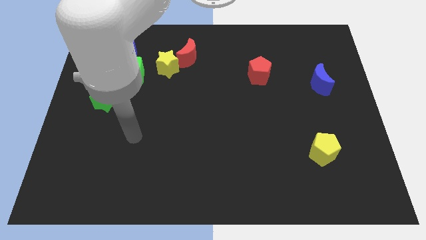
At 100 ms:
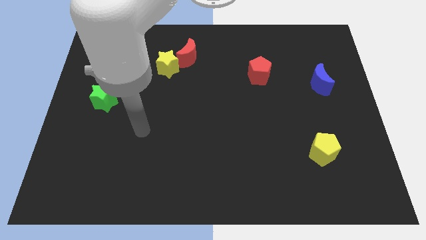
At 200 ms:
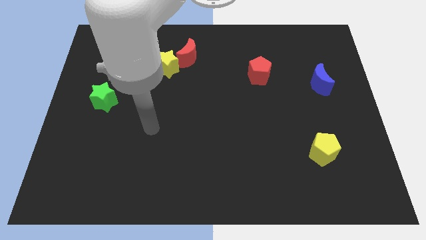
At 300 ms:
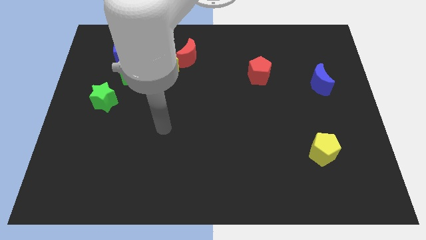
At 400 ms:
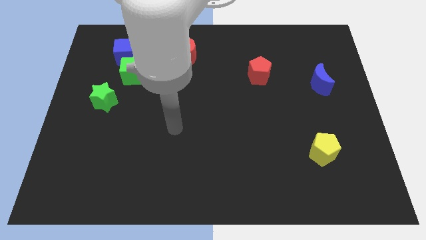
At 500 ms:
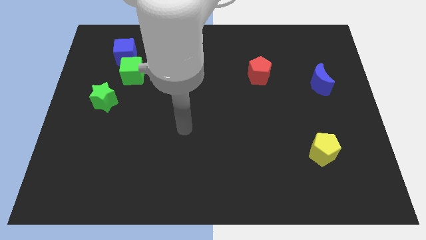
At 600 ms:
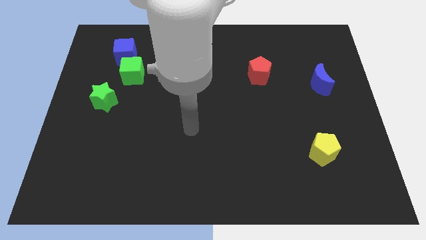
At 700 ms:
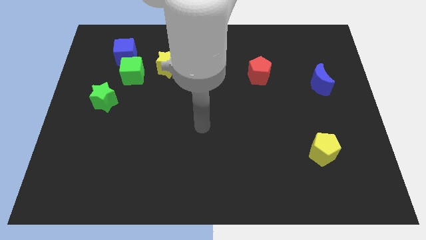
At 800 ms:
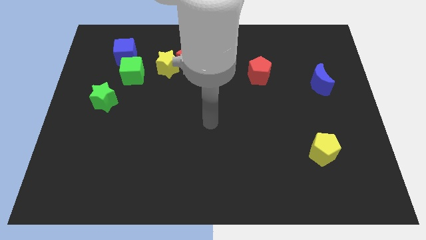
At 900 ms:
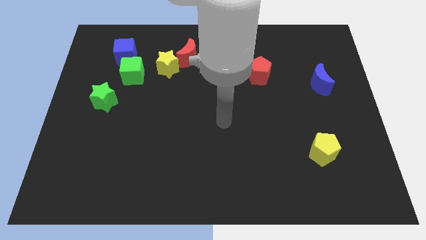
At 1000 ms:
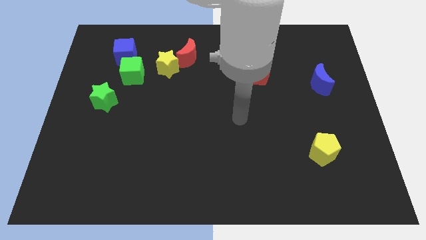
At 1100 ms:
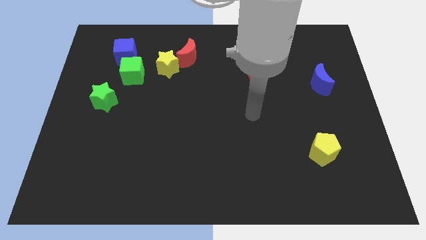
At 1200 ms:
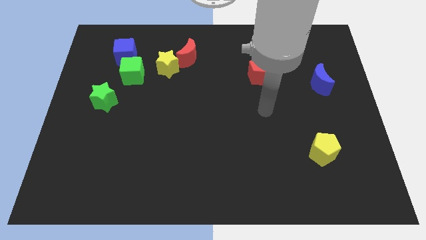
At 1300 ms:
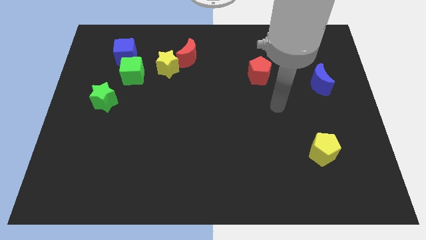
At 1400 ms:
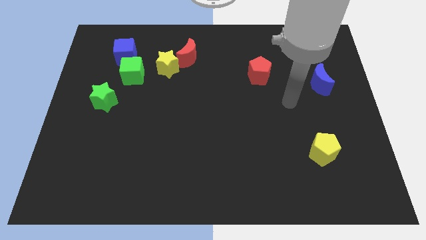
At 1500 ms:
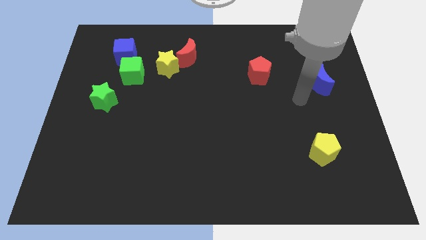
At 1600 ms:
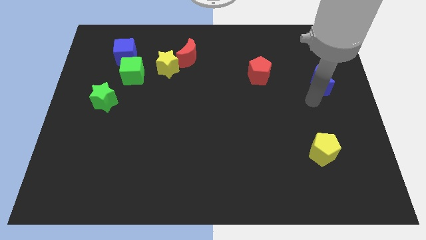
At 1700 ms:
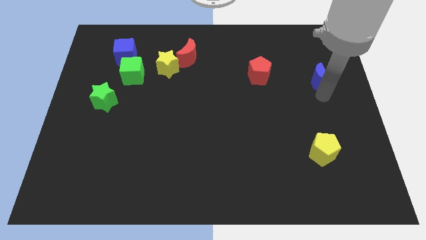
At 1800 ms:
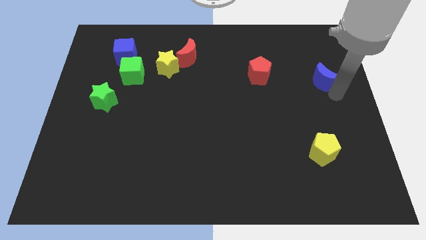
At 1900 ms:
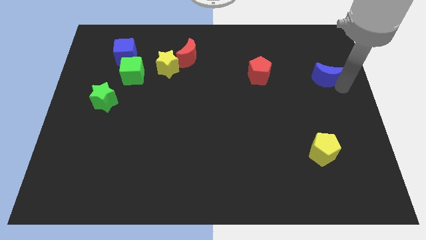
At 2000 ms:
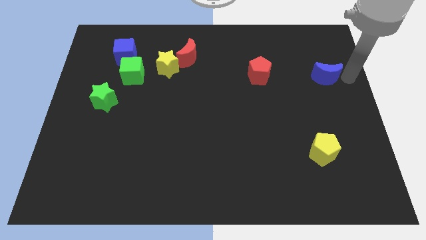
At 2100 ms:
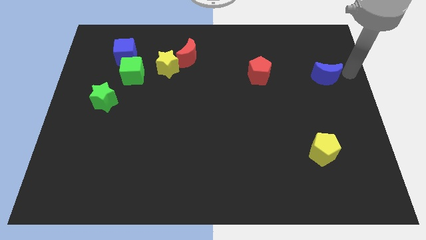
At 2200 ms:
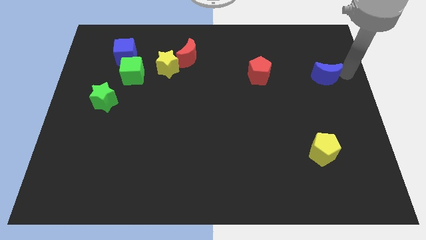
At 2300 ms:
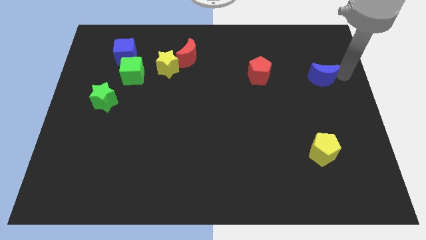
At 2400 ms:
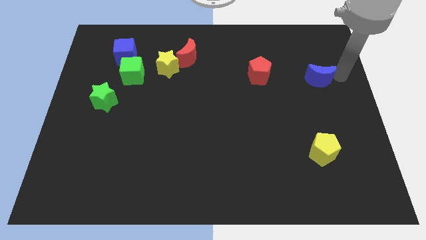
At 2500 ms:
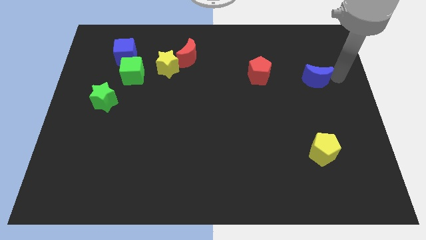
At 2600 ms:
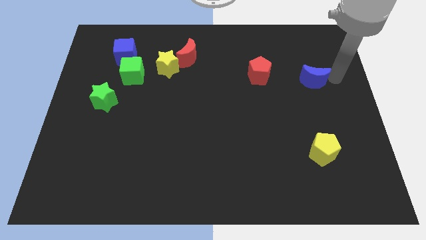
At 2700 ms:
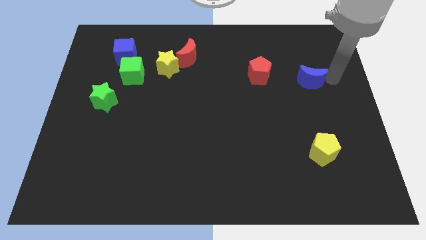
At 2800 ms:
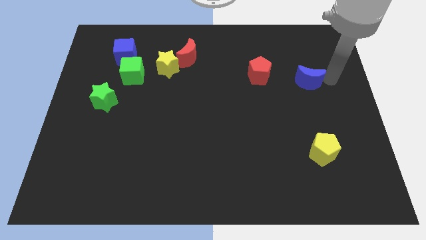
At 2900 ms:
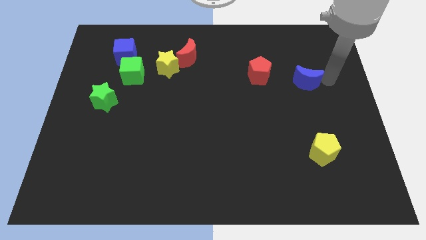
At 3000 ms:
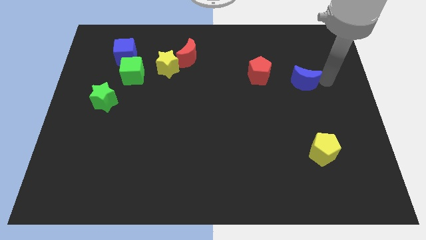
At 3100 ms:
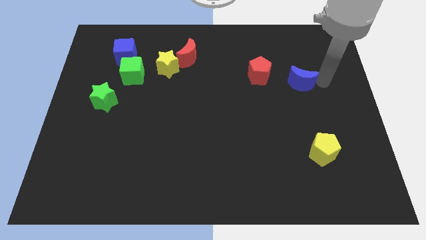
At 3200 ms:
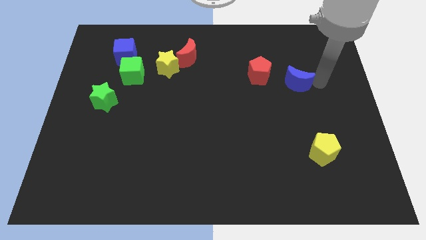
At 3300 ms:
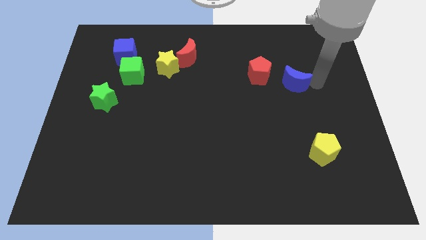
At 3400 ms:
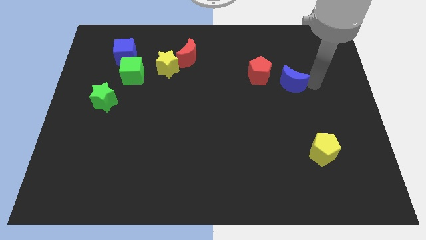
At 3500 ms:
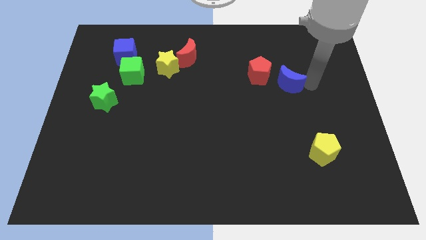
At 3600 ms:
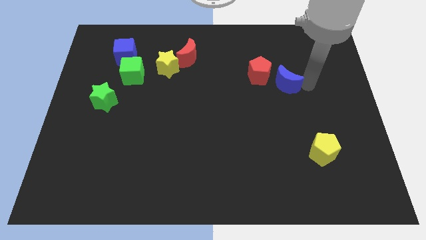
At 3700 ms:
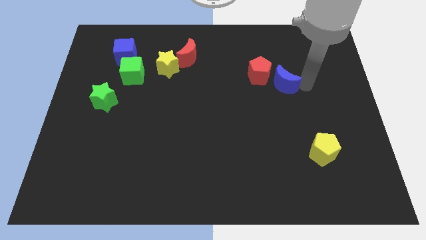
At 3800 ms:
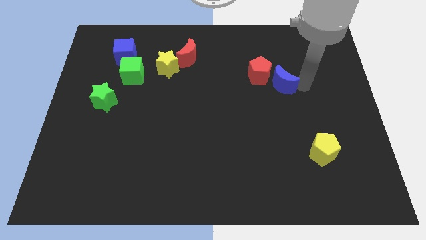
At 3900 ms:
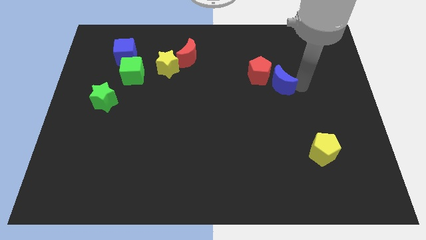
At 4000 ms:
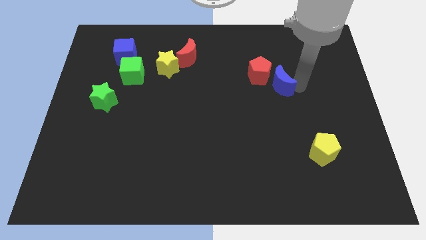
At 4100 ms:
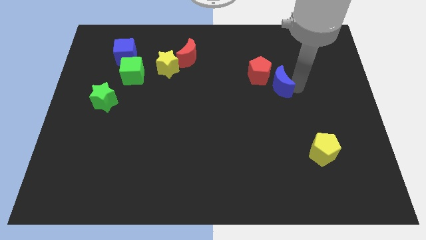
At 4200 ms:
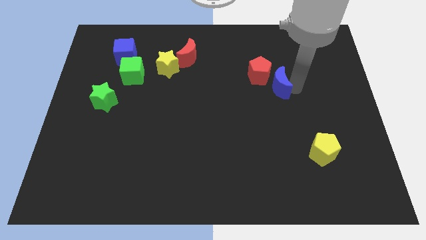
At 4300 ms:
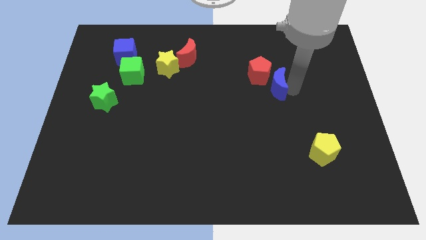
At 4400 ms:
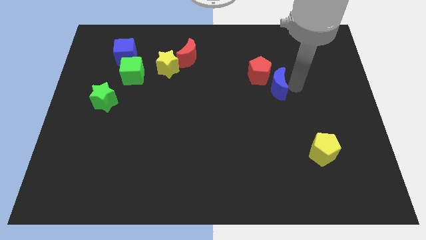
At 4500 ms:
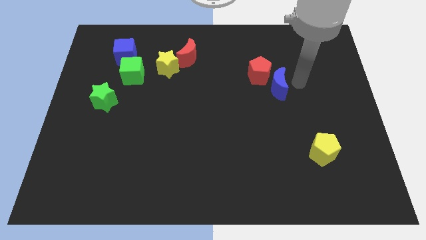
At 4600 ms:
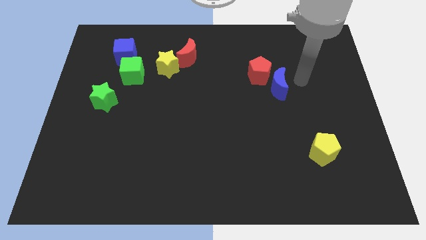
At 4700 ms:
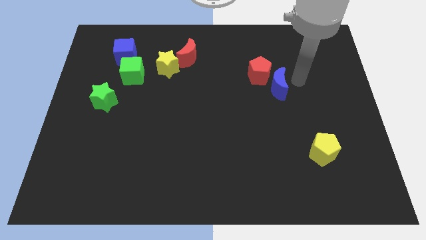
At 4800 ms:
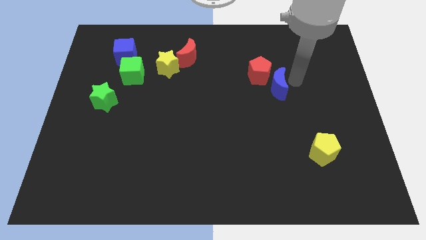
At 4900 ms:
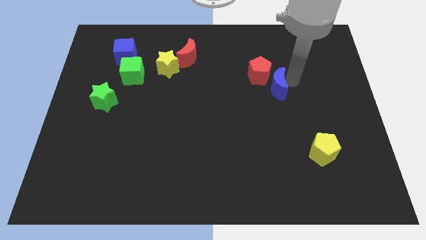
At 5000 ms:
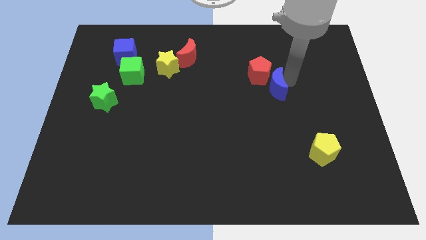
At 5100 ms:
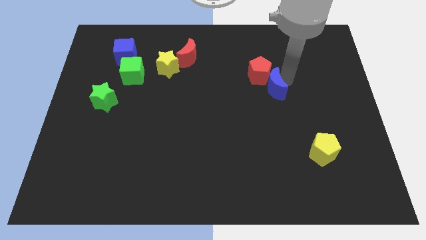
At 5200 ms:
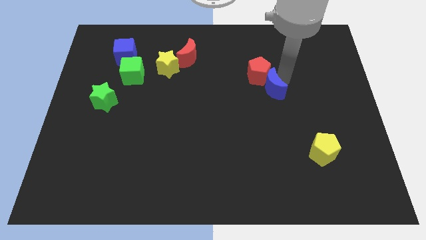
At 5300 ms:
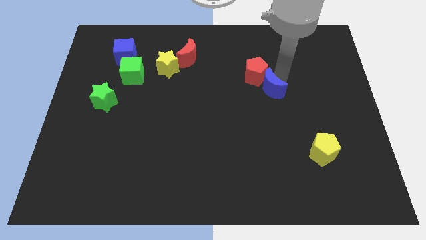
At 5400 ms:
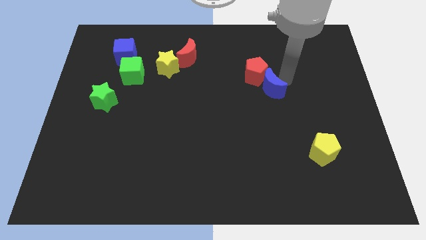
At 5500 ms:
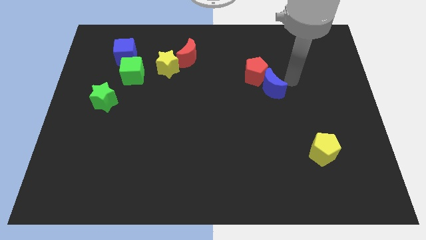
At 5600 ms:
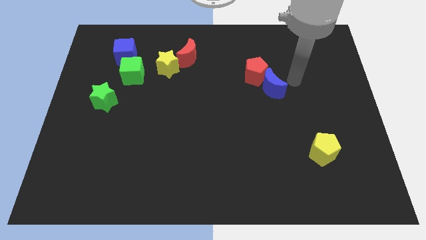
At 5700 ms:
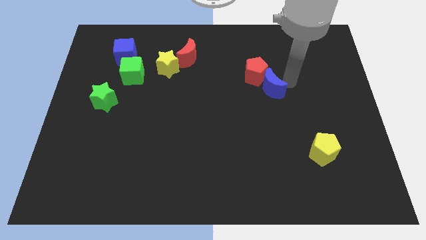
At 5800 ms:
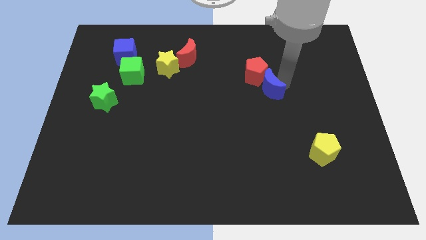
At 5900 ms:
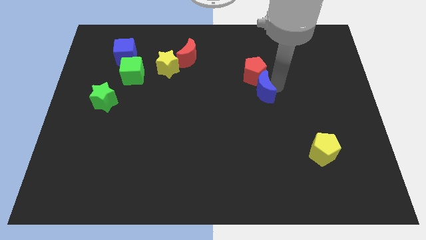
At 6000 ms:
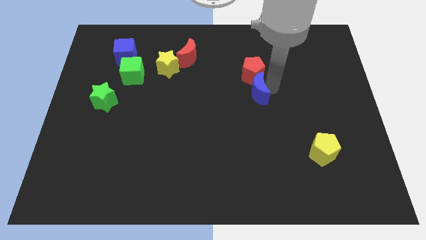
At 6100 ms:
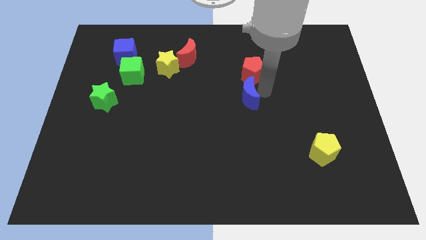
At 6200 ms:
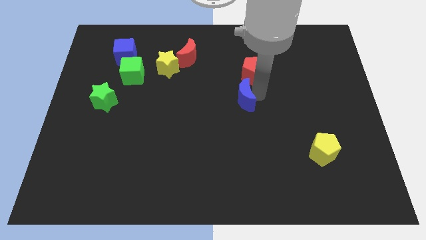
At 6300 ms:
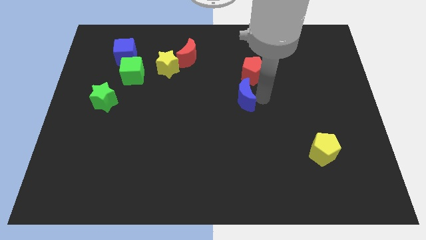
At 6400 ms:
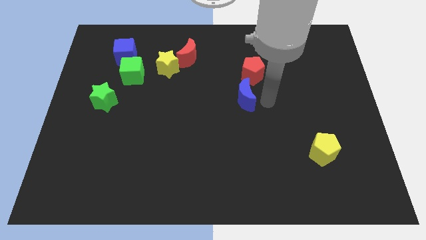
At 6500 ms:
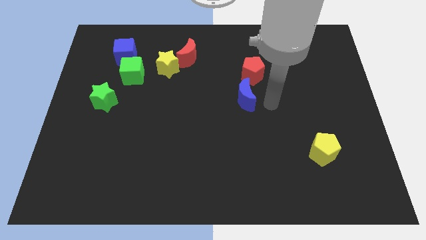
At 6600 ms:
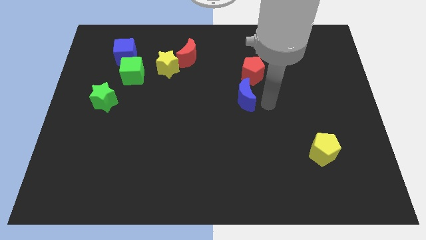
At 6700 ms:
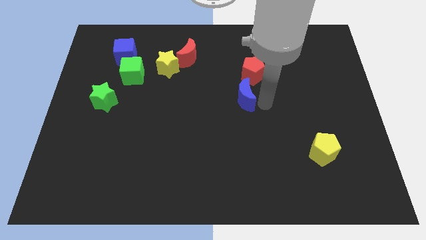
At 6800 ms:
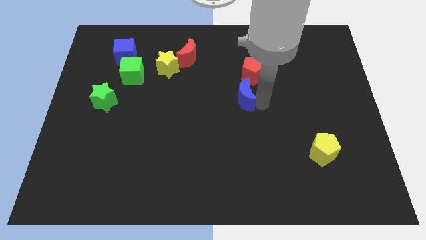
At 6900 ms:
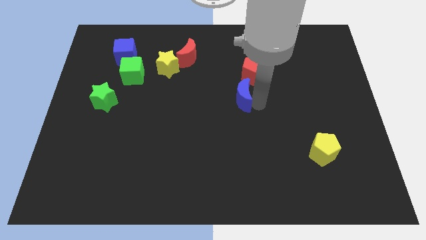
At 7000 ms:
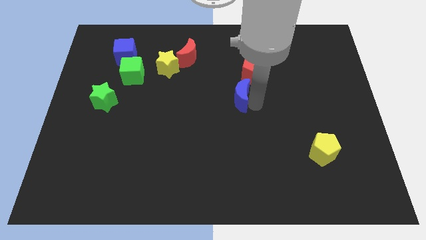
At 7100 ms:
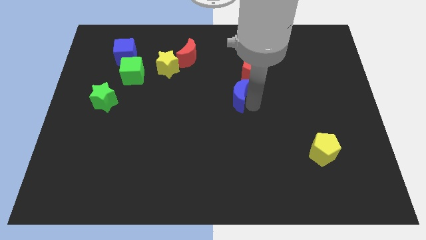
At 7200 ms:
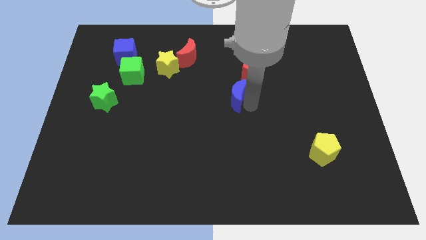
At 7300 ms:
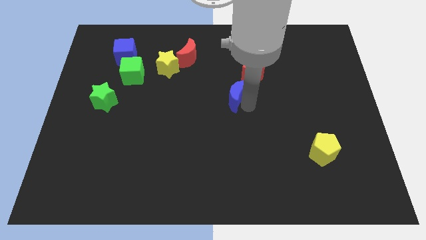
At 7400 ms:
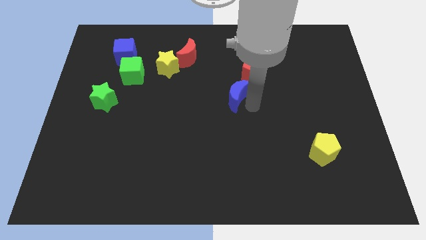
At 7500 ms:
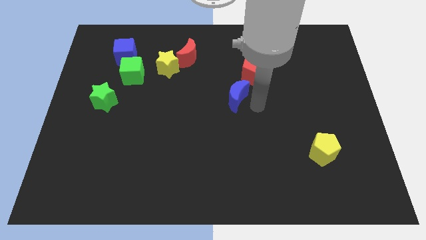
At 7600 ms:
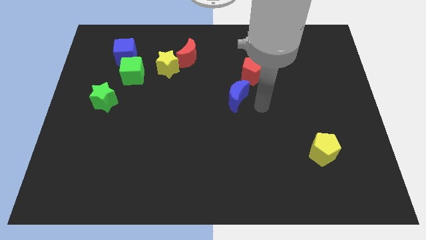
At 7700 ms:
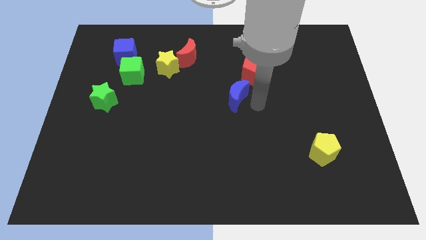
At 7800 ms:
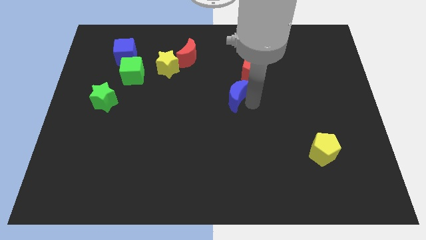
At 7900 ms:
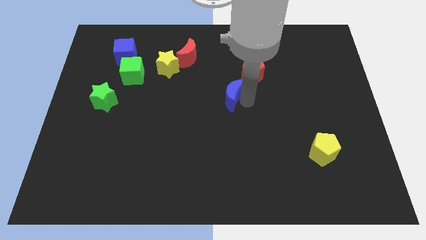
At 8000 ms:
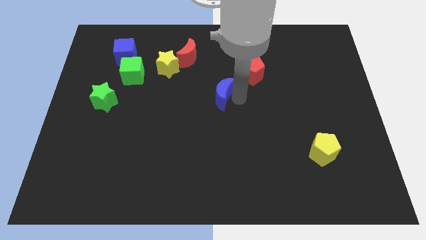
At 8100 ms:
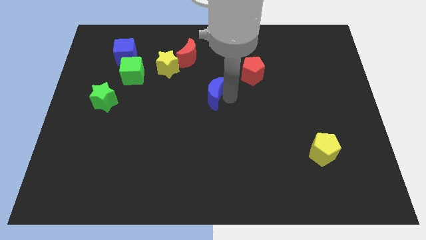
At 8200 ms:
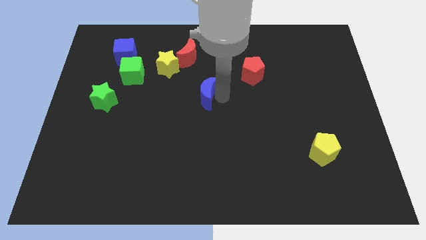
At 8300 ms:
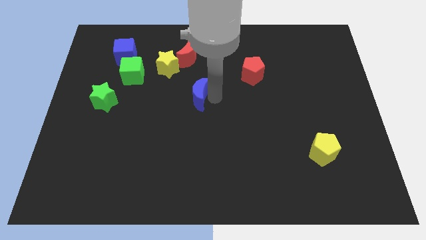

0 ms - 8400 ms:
move the blue moon below the red moon
